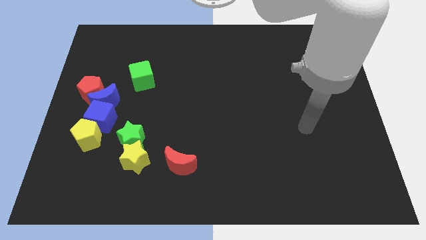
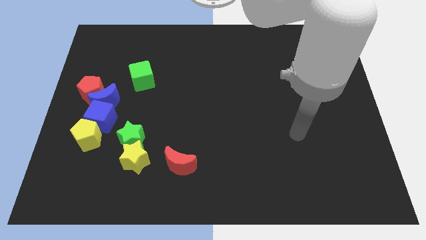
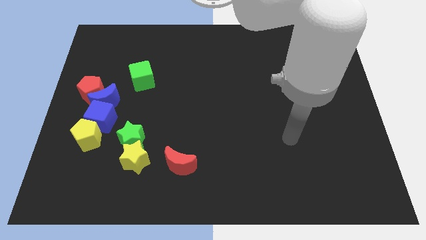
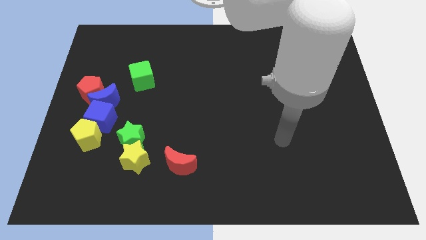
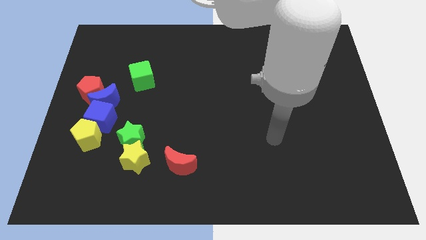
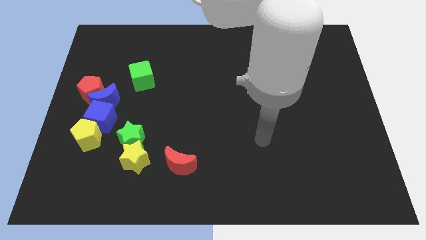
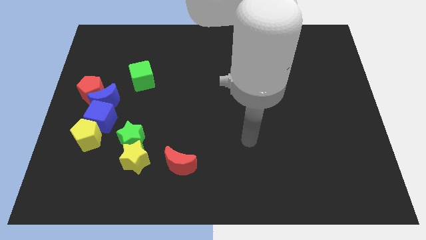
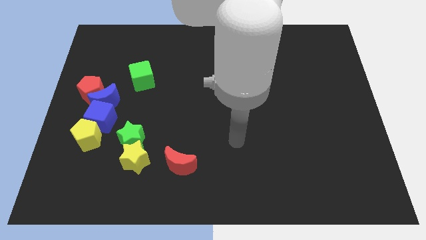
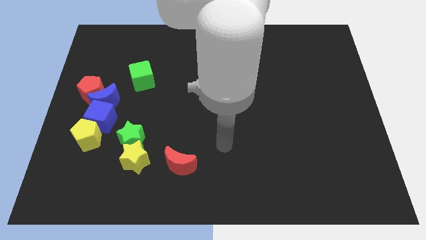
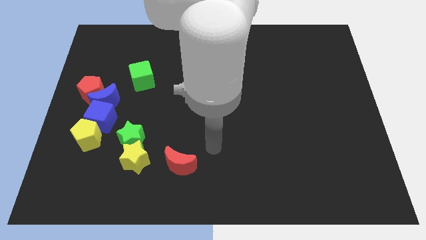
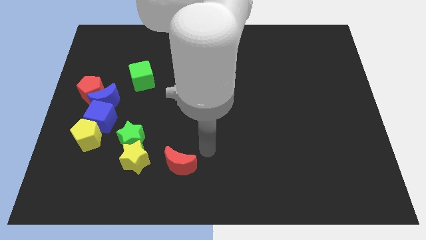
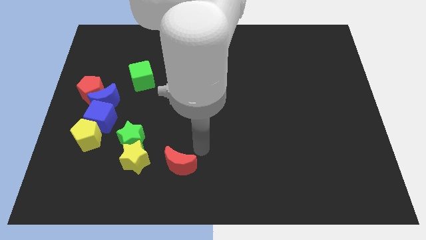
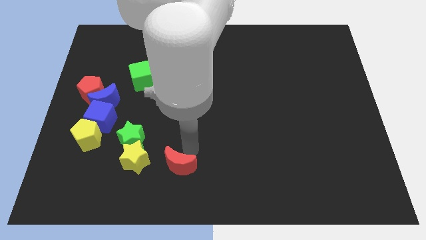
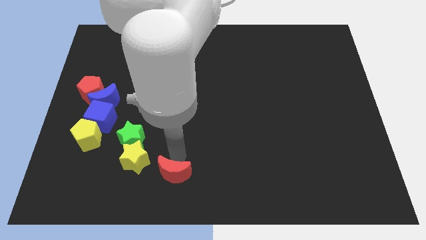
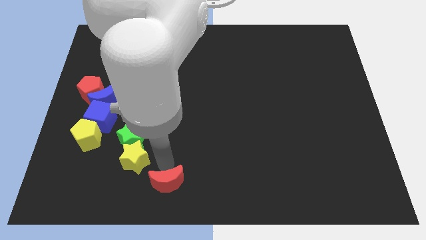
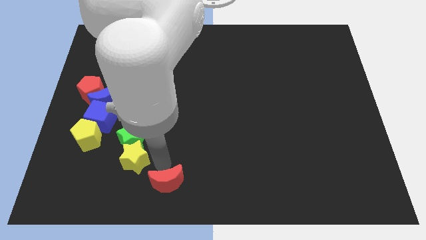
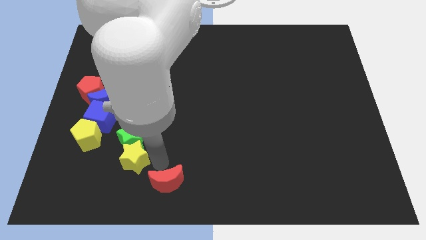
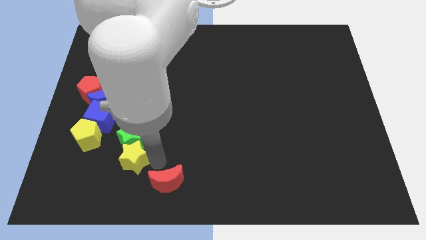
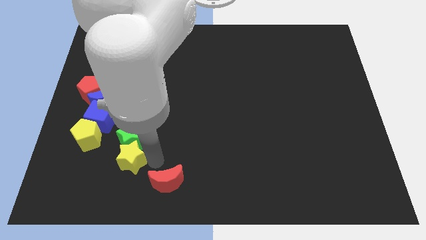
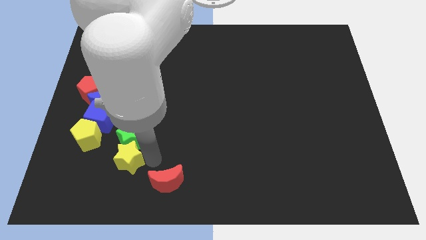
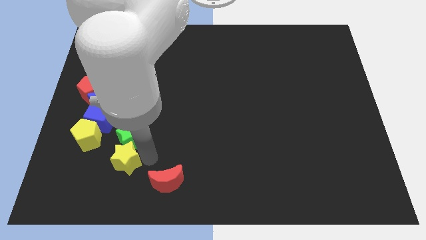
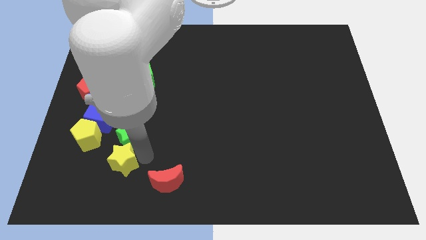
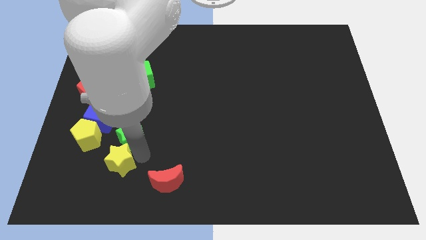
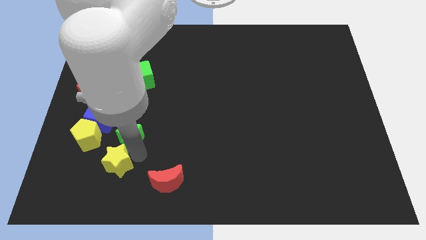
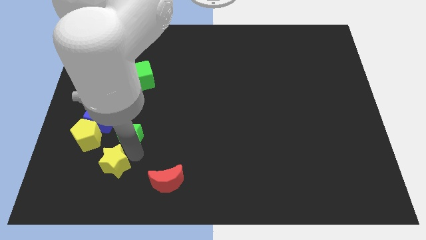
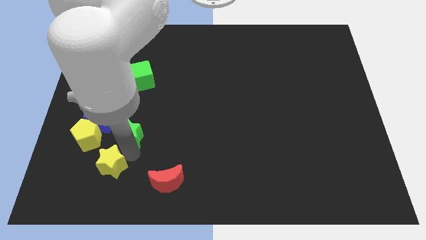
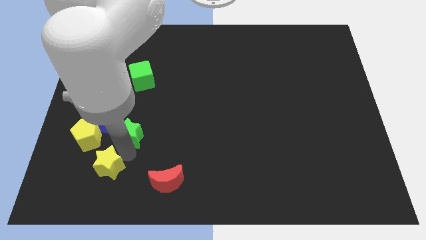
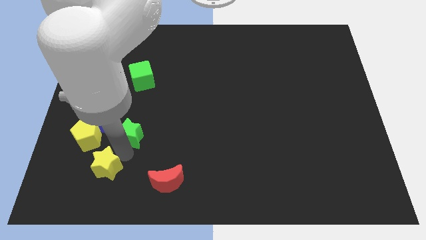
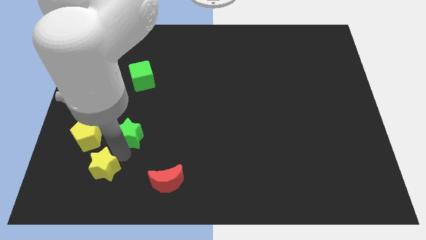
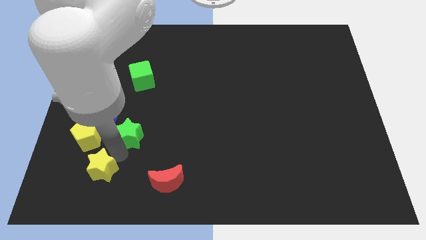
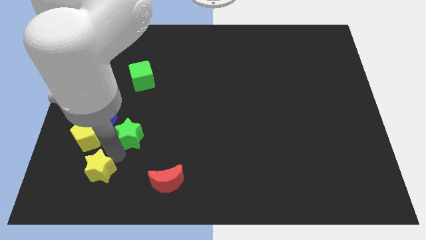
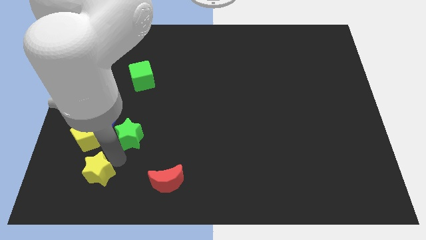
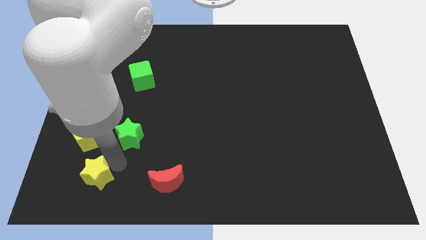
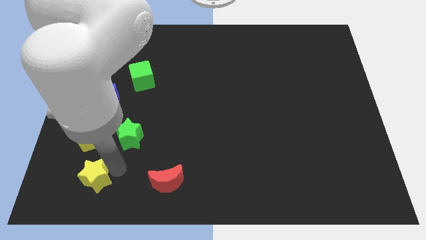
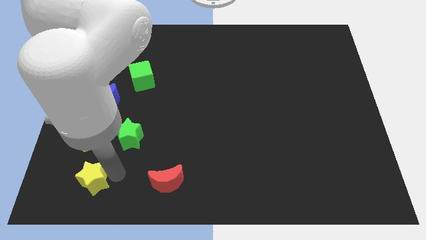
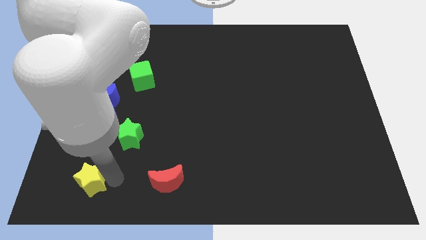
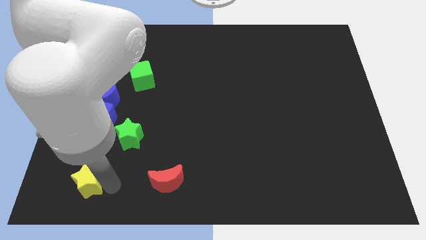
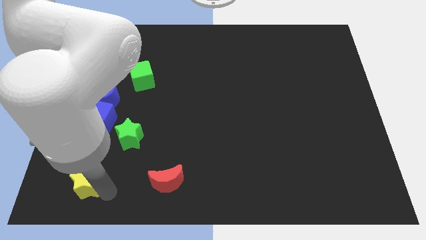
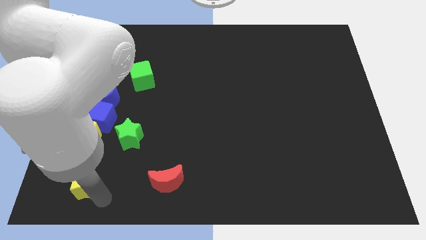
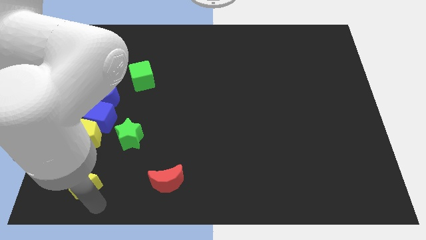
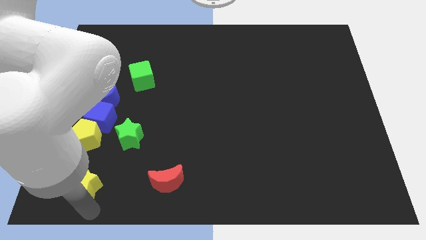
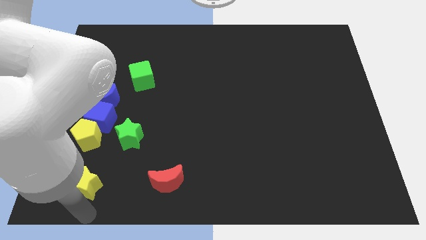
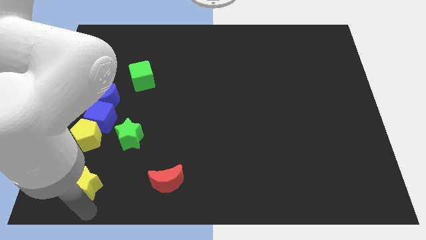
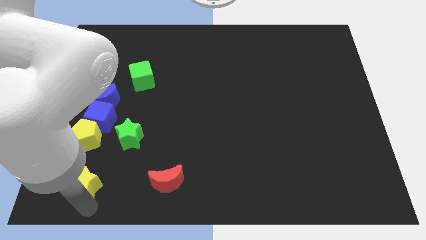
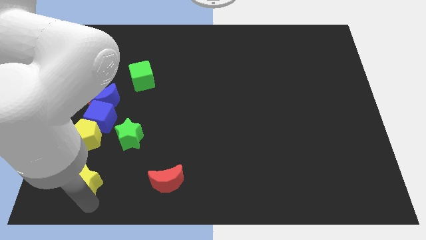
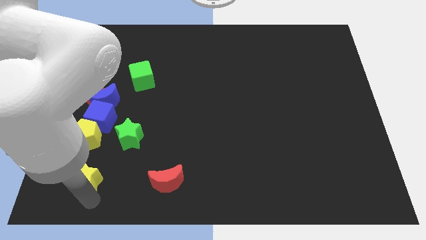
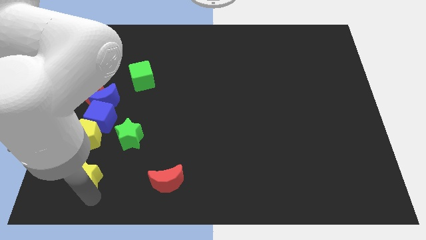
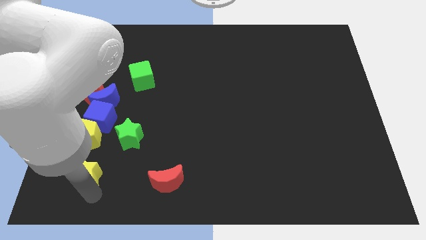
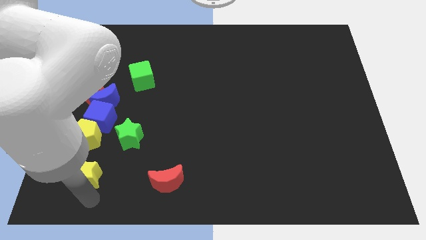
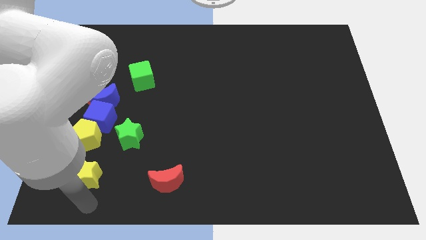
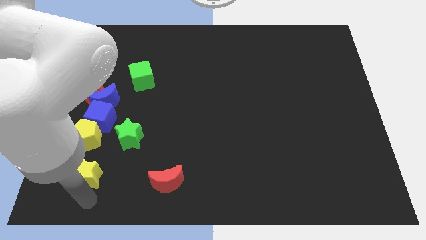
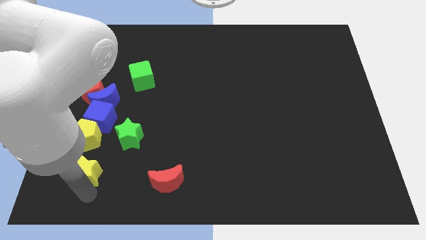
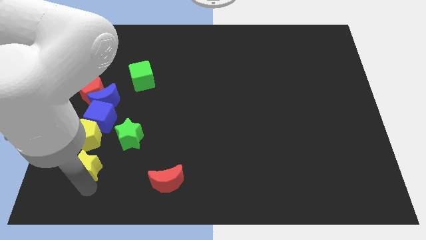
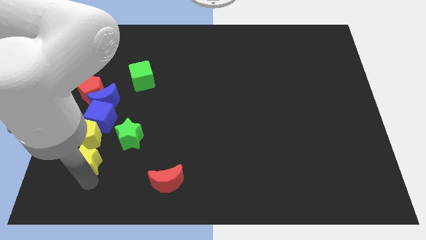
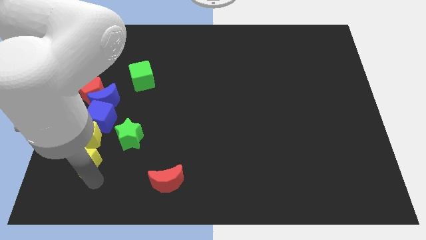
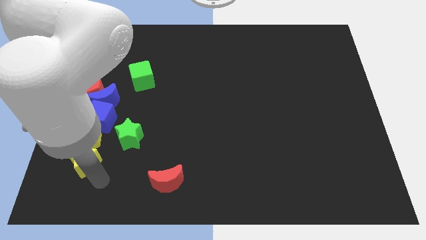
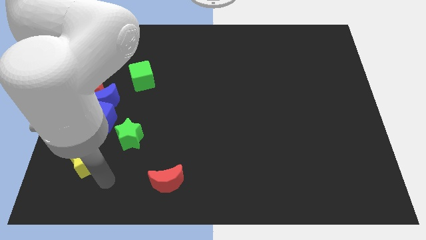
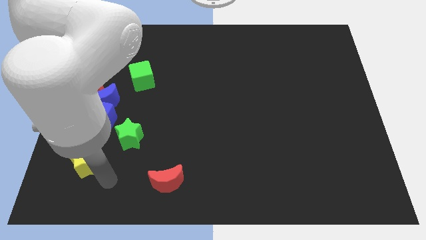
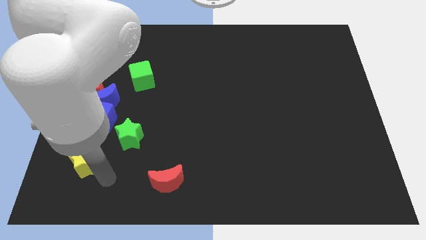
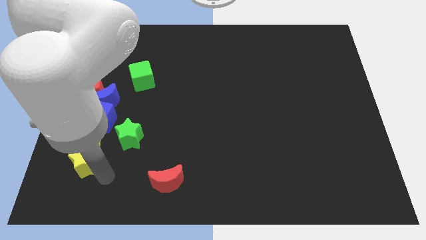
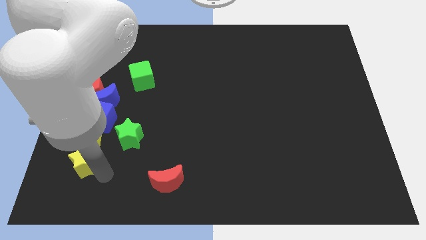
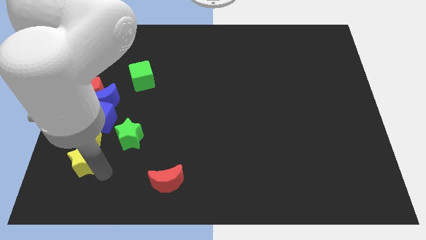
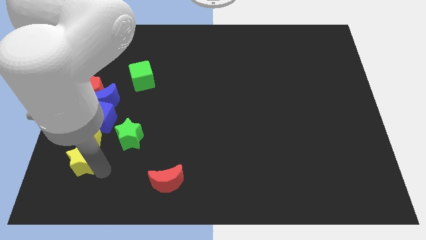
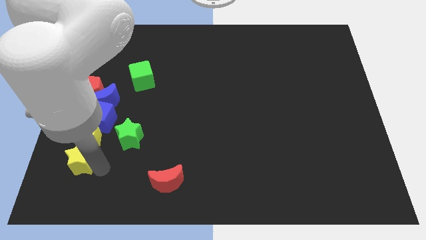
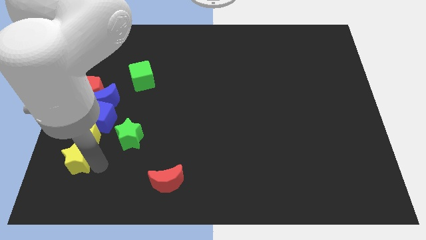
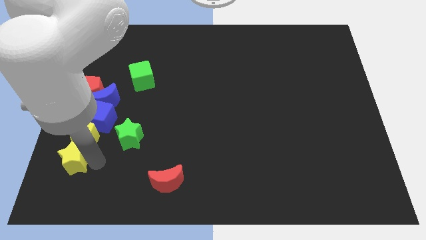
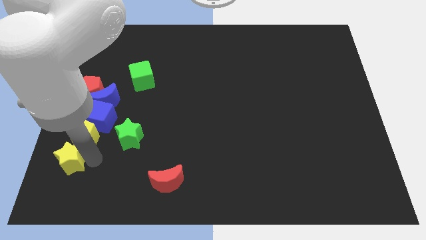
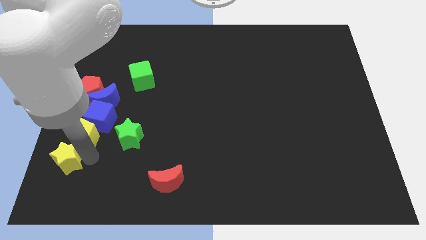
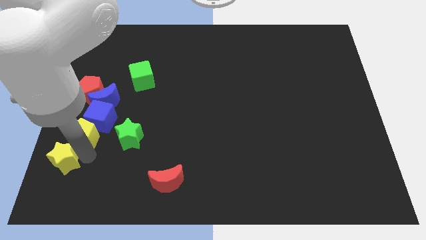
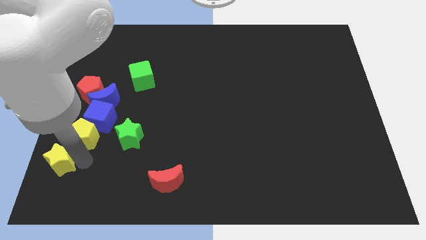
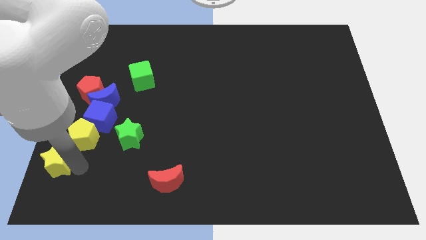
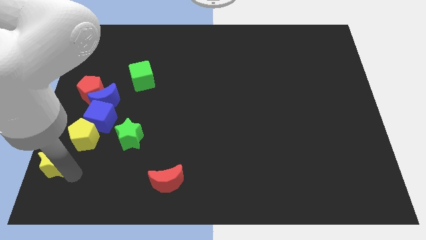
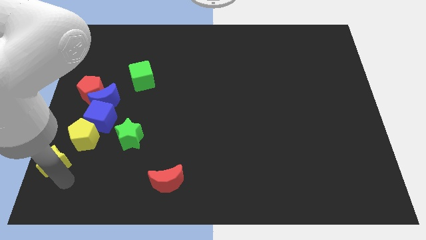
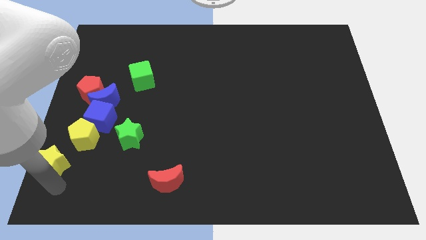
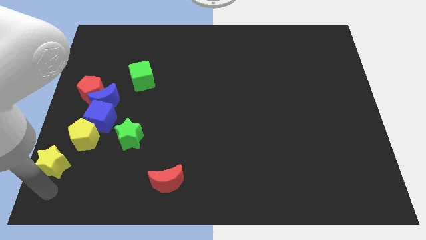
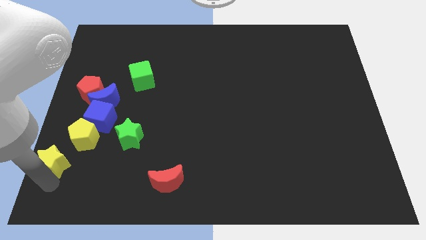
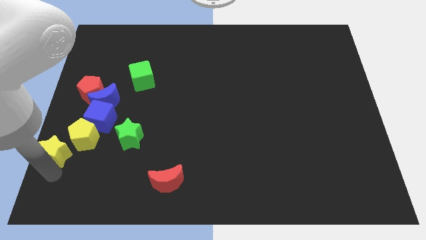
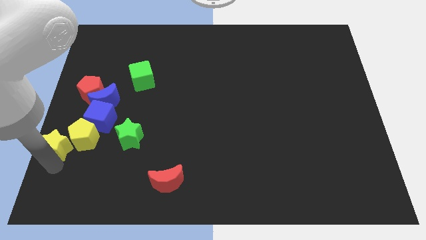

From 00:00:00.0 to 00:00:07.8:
slide the yellow star to the center left
